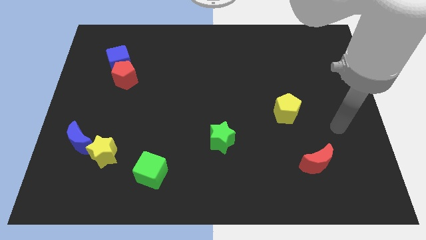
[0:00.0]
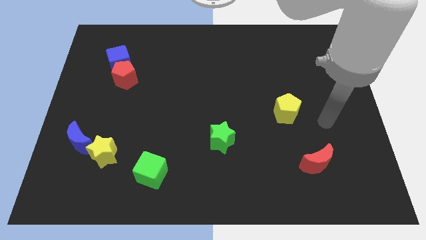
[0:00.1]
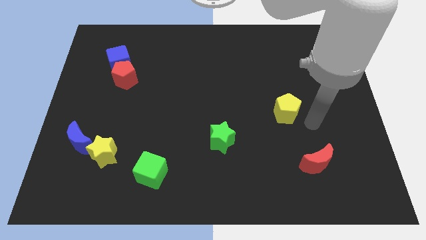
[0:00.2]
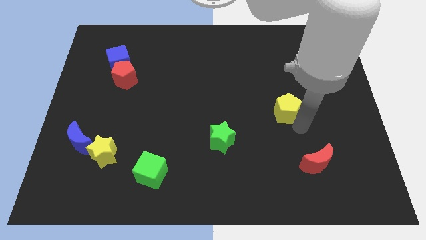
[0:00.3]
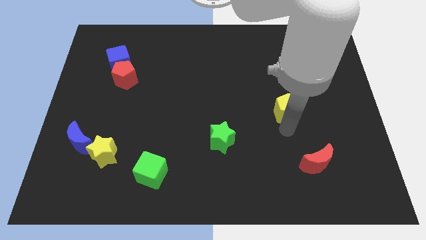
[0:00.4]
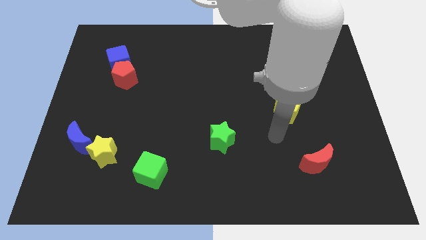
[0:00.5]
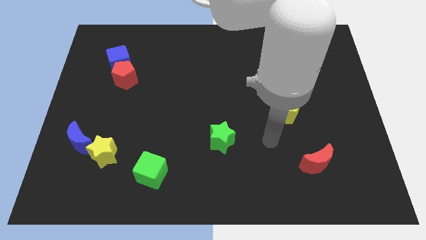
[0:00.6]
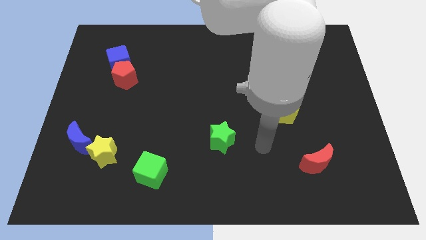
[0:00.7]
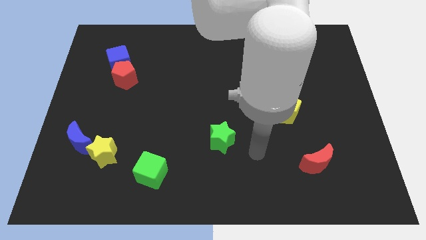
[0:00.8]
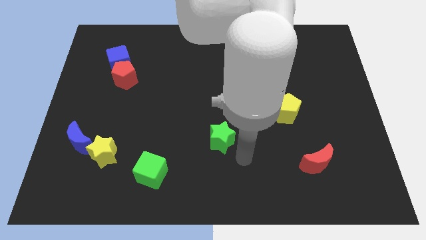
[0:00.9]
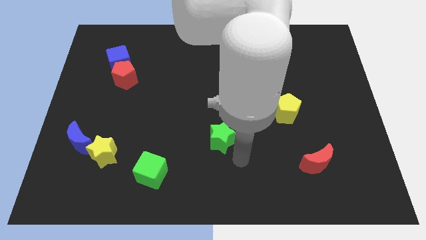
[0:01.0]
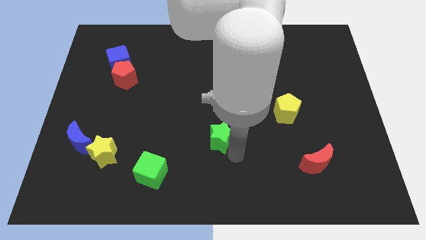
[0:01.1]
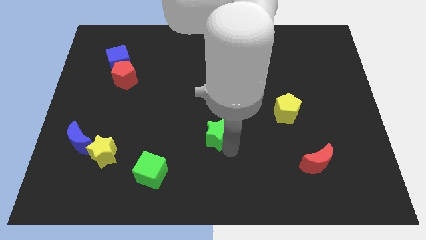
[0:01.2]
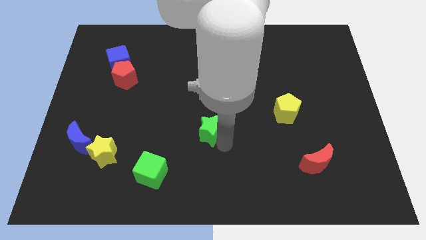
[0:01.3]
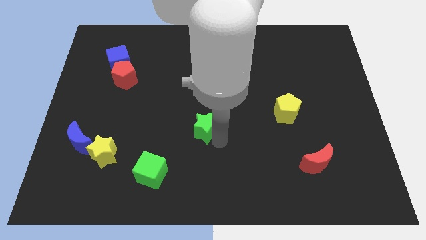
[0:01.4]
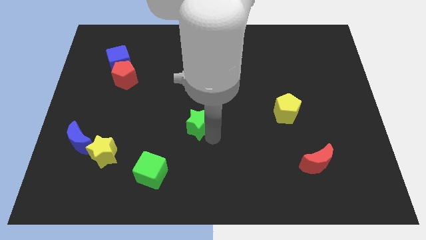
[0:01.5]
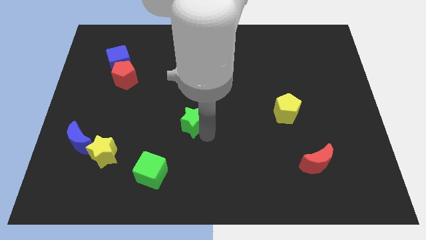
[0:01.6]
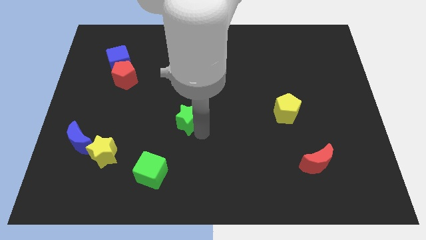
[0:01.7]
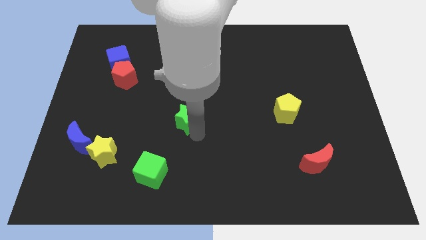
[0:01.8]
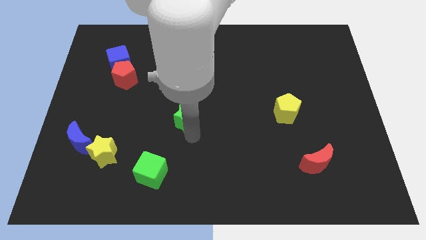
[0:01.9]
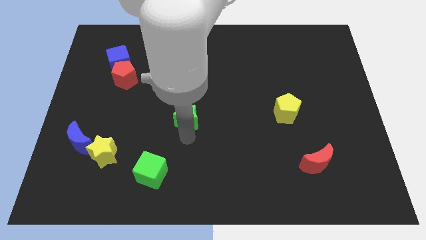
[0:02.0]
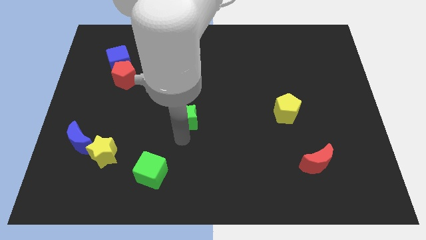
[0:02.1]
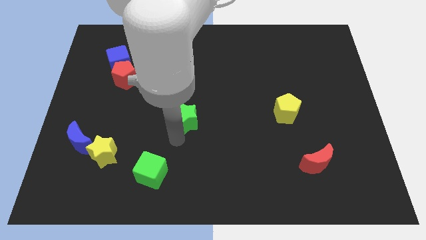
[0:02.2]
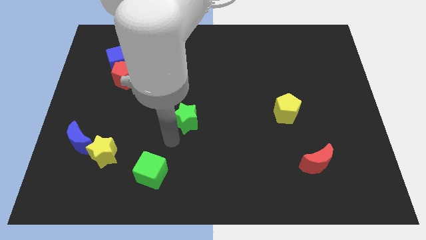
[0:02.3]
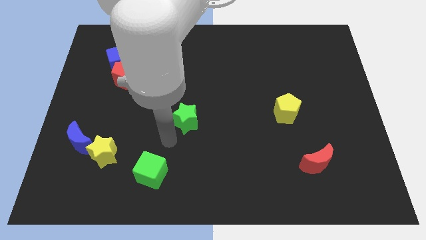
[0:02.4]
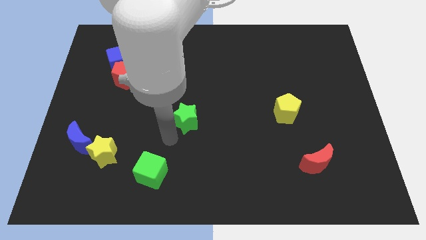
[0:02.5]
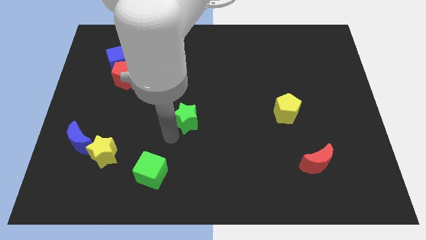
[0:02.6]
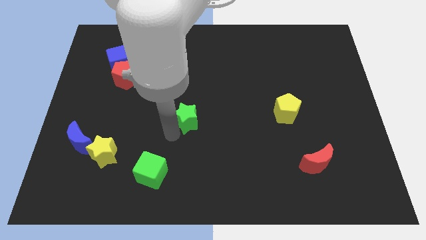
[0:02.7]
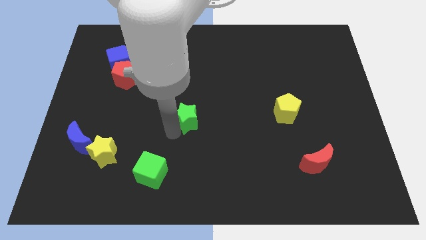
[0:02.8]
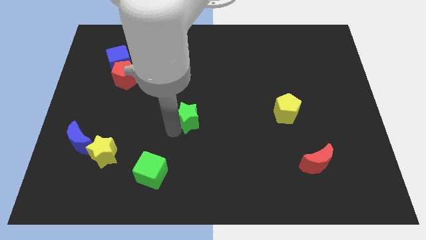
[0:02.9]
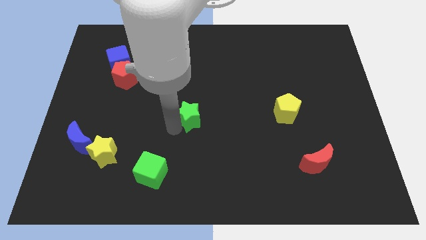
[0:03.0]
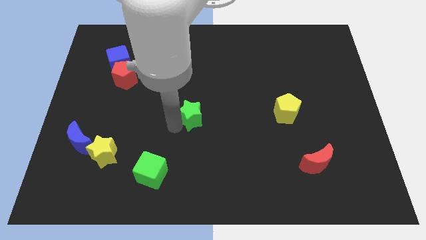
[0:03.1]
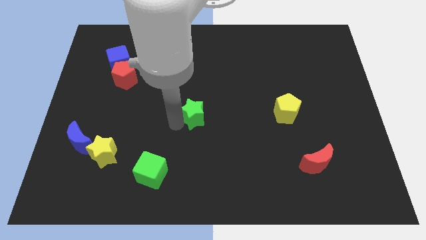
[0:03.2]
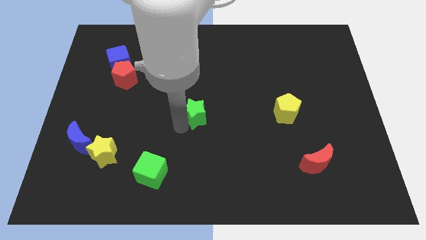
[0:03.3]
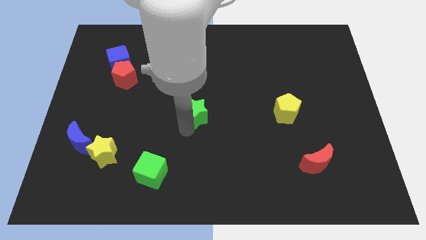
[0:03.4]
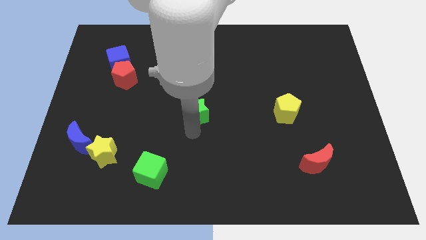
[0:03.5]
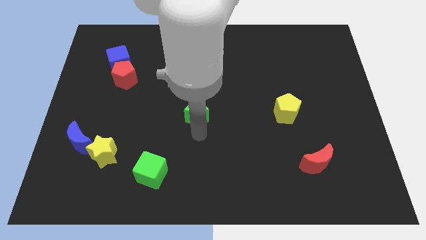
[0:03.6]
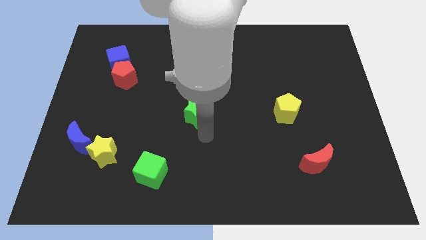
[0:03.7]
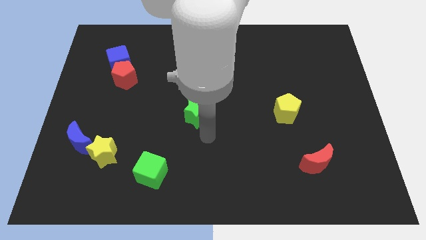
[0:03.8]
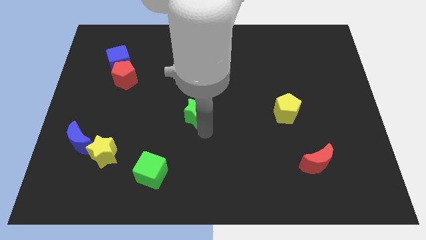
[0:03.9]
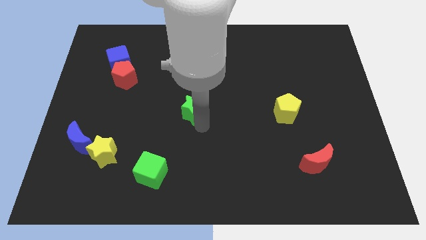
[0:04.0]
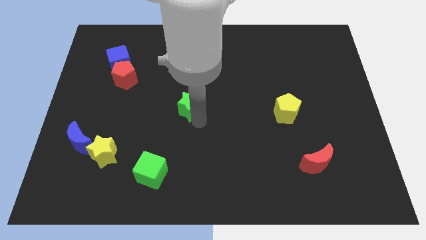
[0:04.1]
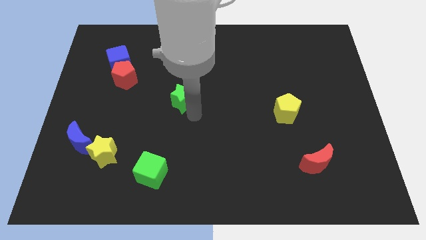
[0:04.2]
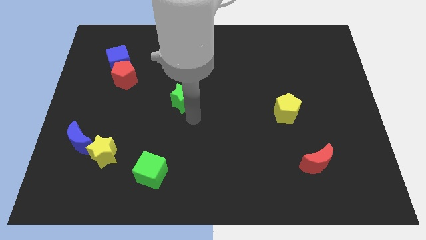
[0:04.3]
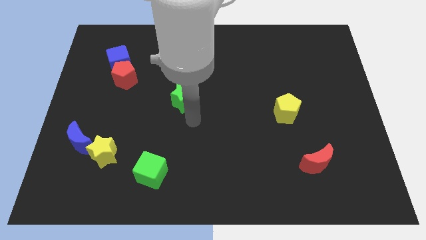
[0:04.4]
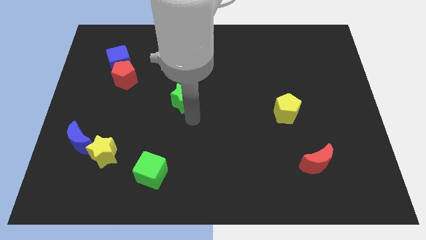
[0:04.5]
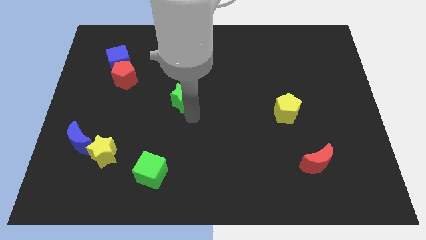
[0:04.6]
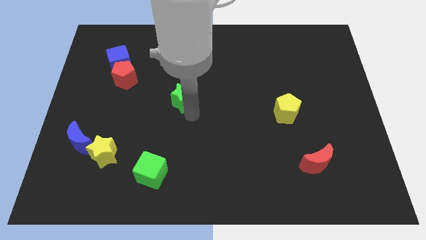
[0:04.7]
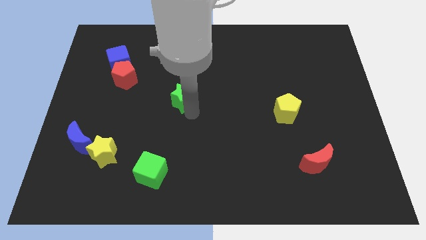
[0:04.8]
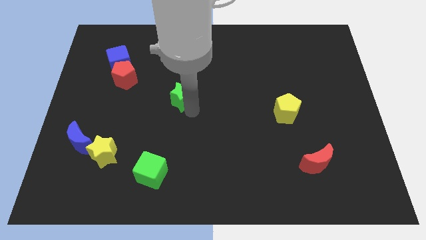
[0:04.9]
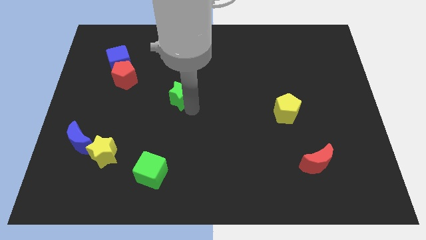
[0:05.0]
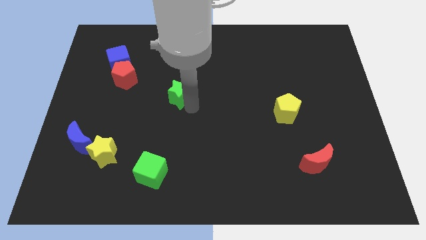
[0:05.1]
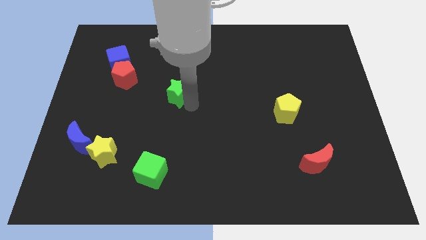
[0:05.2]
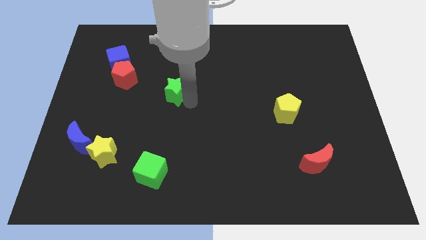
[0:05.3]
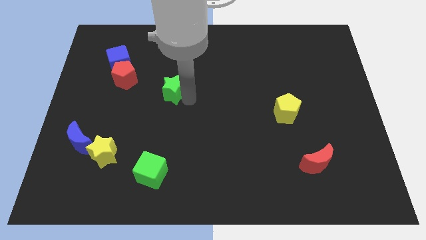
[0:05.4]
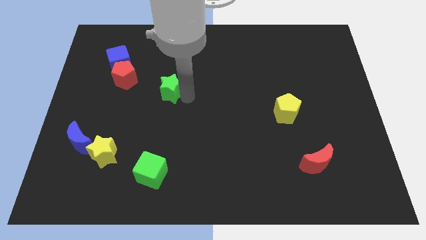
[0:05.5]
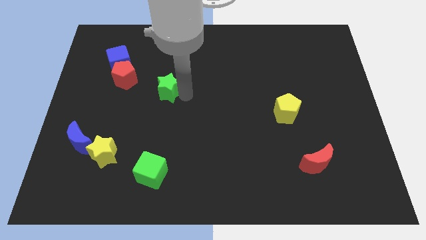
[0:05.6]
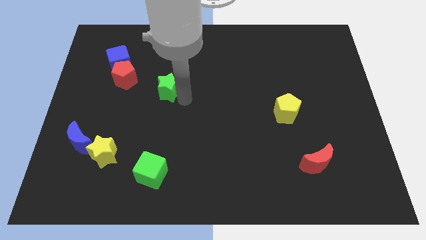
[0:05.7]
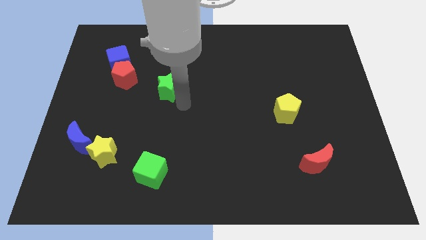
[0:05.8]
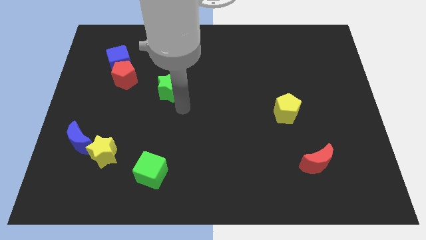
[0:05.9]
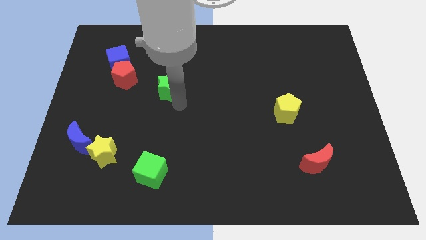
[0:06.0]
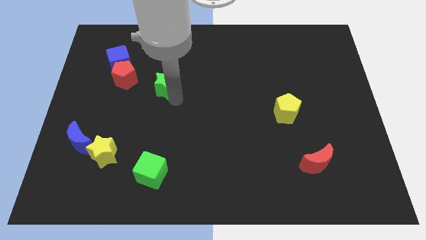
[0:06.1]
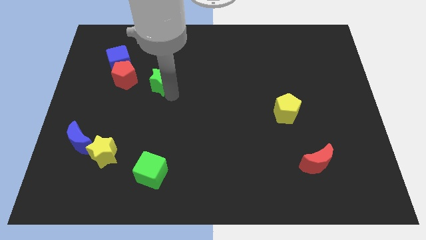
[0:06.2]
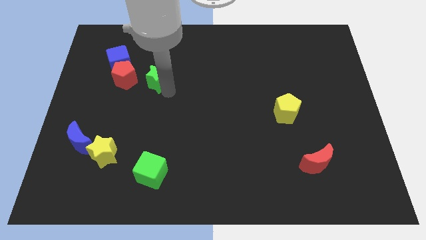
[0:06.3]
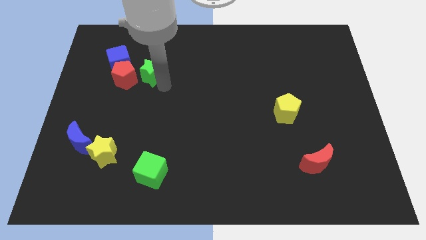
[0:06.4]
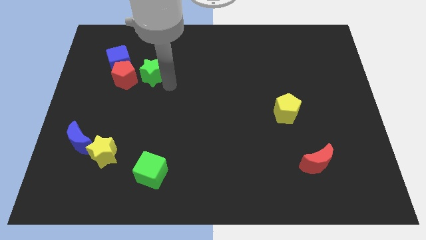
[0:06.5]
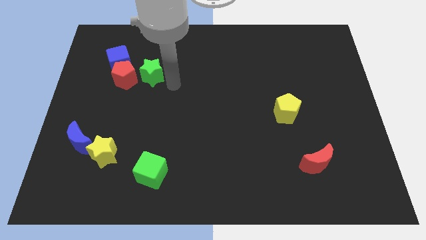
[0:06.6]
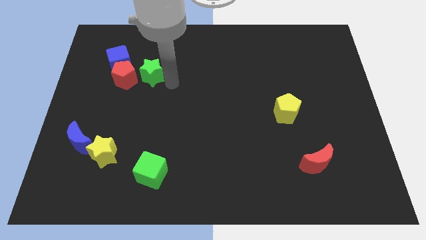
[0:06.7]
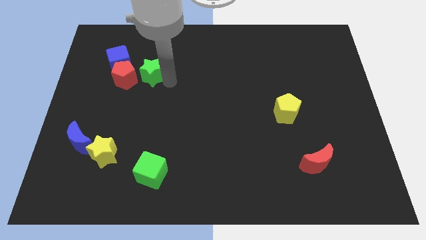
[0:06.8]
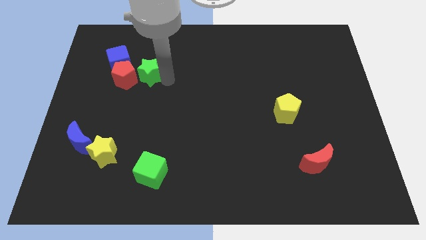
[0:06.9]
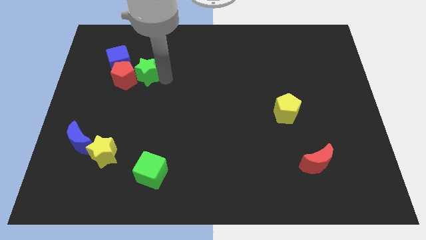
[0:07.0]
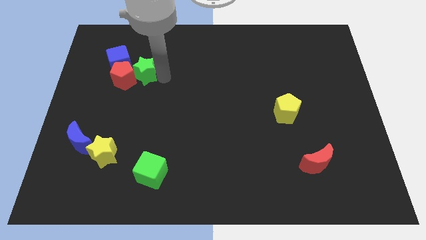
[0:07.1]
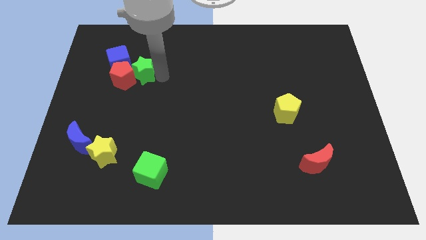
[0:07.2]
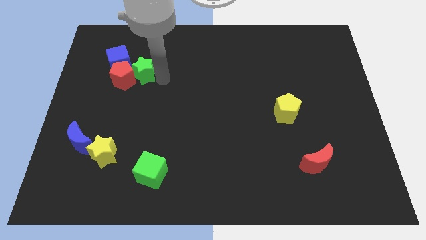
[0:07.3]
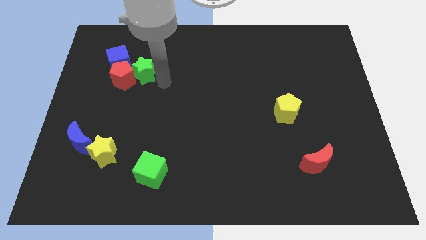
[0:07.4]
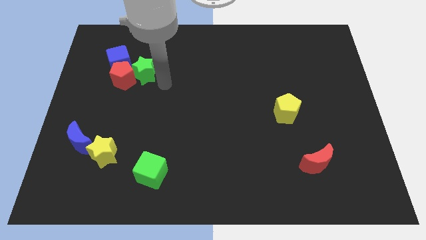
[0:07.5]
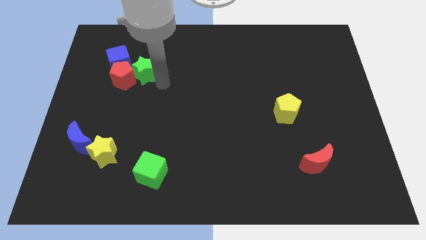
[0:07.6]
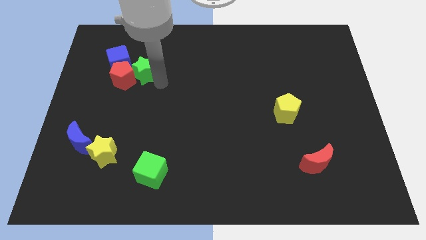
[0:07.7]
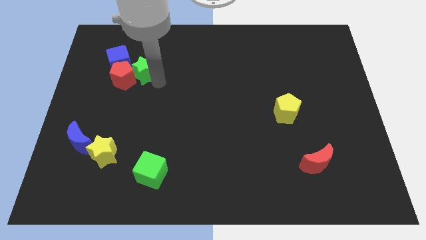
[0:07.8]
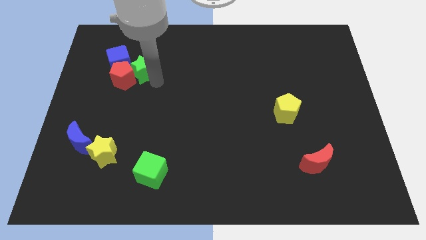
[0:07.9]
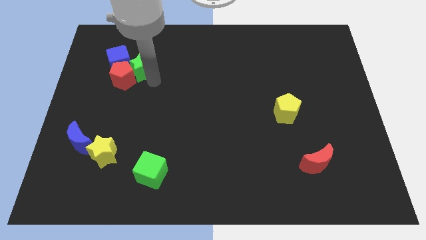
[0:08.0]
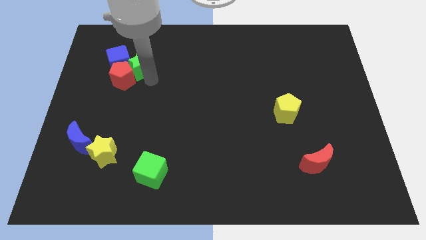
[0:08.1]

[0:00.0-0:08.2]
put the green star next to the blue cube

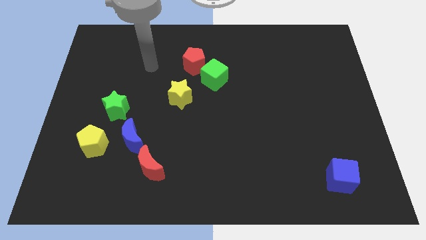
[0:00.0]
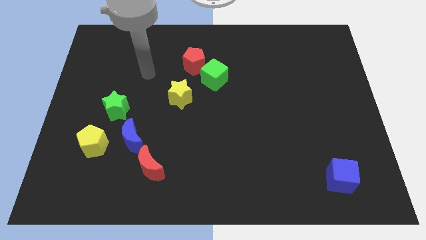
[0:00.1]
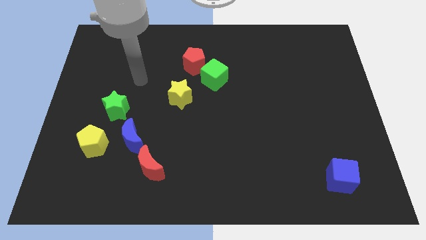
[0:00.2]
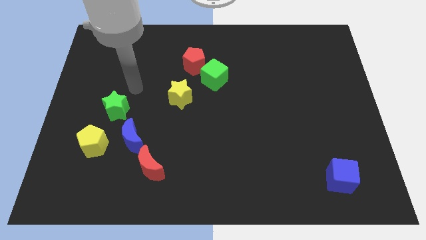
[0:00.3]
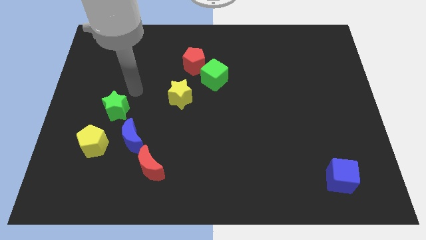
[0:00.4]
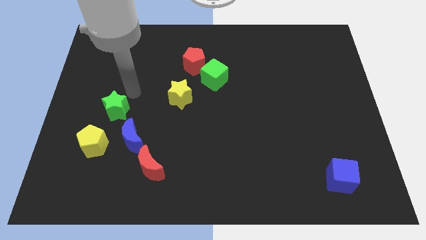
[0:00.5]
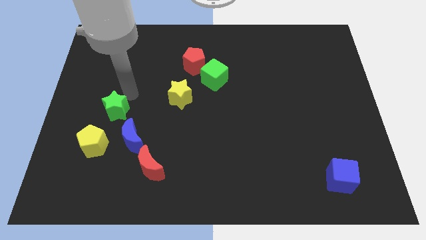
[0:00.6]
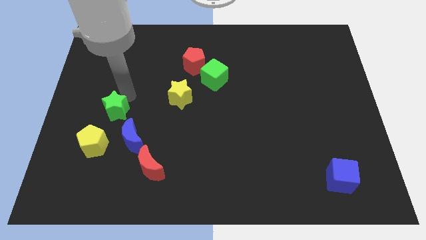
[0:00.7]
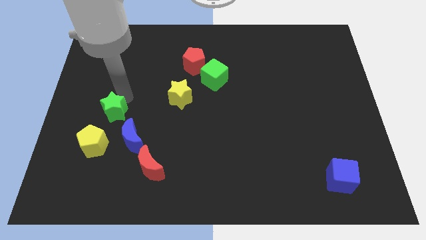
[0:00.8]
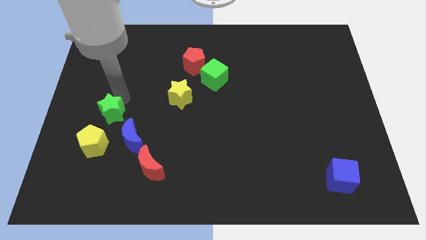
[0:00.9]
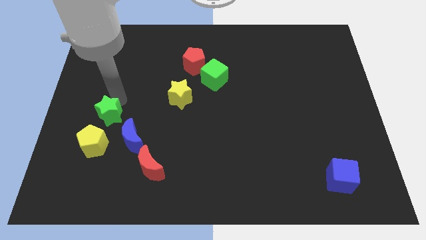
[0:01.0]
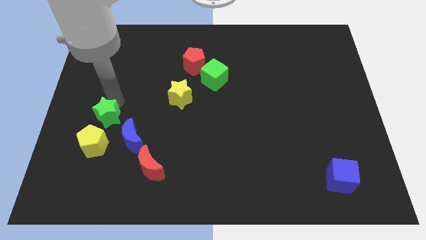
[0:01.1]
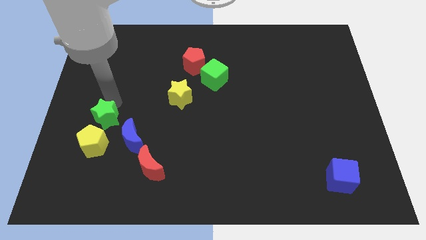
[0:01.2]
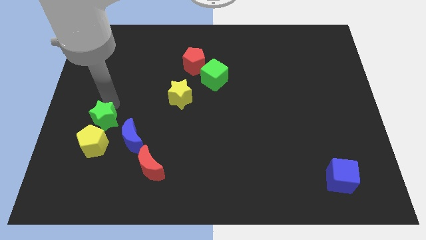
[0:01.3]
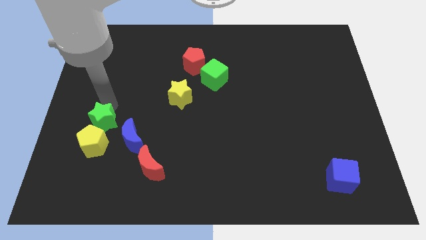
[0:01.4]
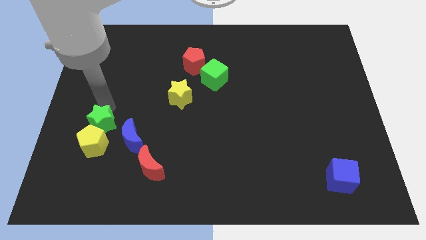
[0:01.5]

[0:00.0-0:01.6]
slide the green star next to the yellow pentagon
